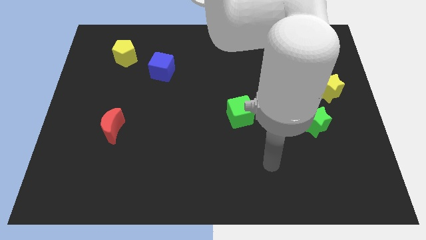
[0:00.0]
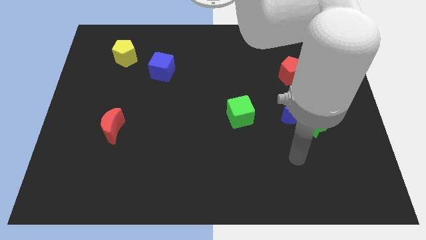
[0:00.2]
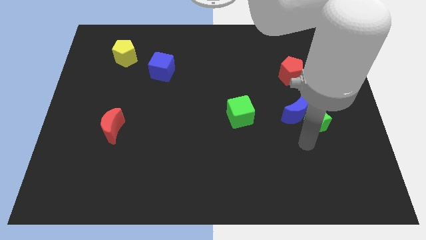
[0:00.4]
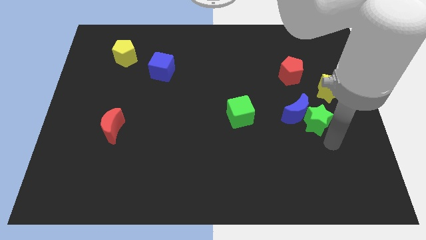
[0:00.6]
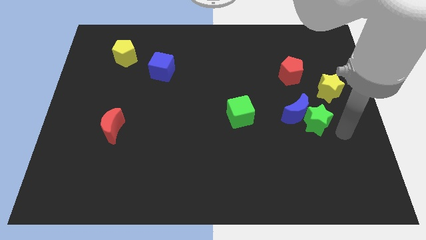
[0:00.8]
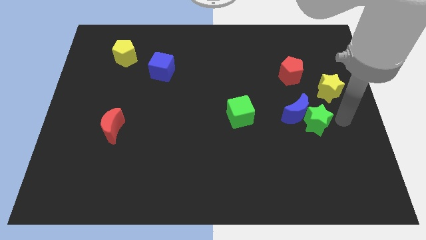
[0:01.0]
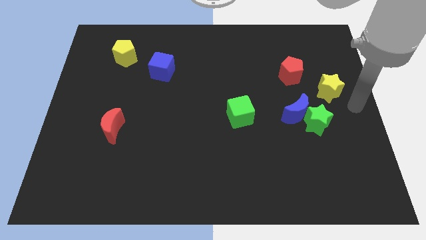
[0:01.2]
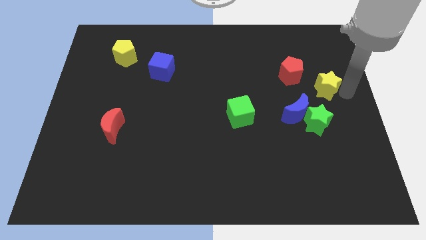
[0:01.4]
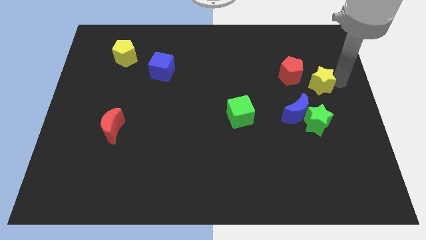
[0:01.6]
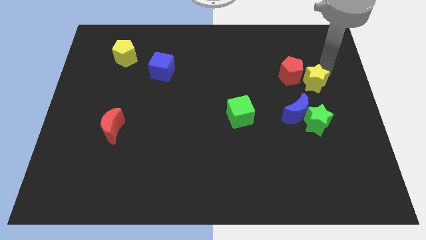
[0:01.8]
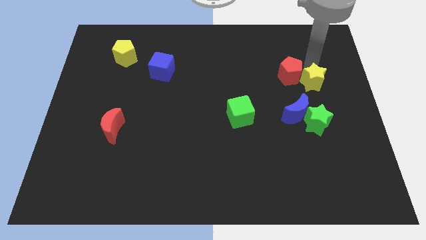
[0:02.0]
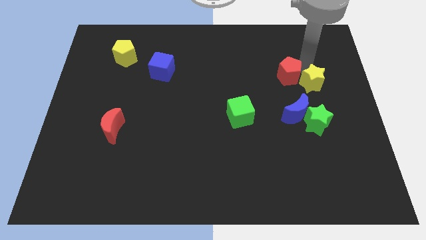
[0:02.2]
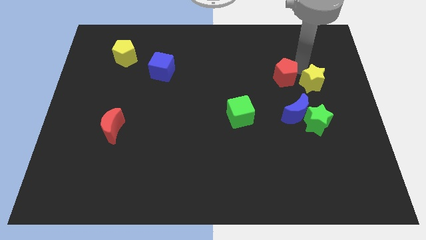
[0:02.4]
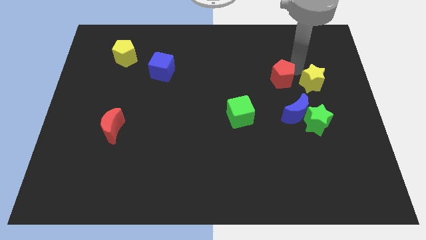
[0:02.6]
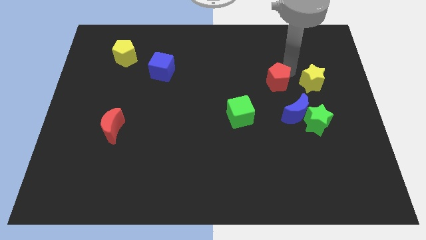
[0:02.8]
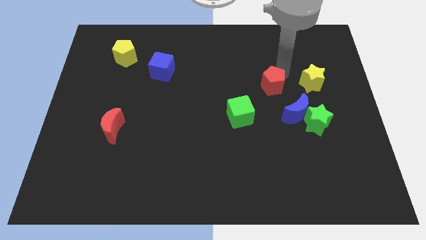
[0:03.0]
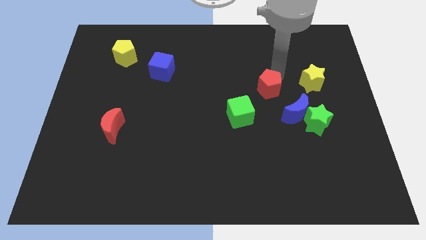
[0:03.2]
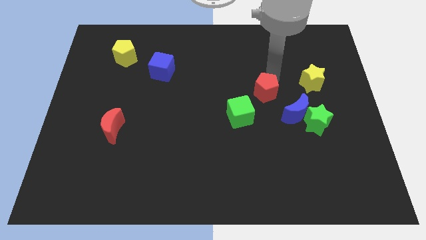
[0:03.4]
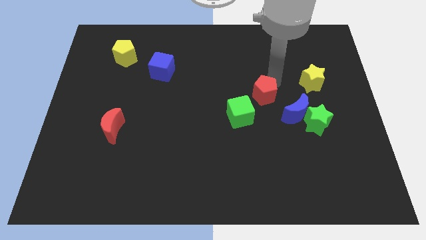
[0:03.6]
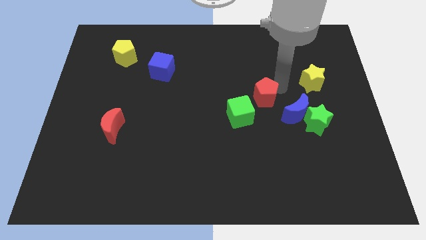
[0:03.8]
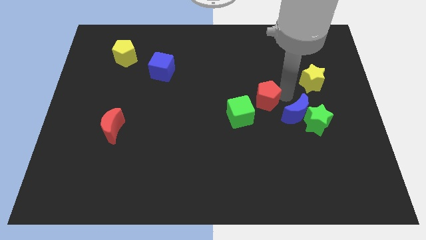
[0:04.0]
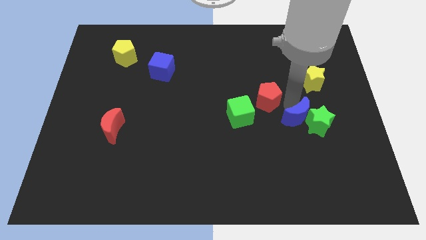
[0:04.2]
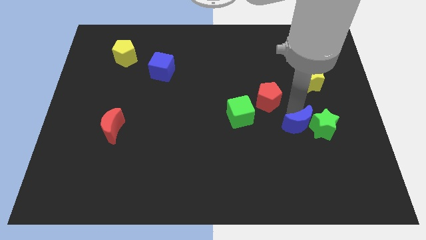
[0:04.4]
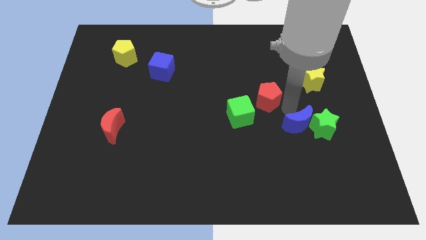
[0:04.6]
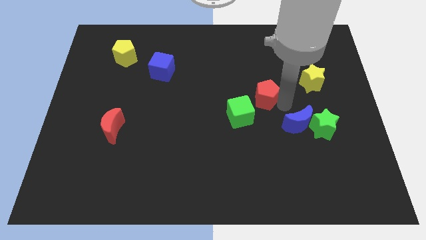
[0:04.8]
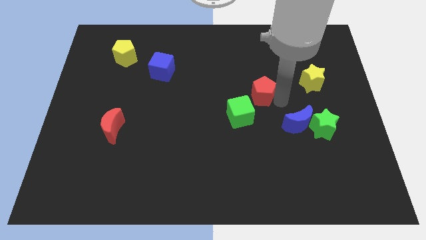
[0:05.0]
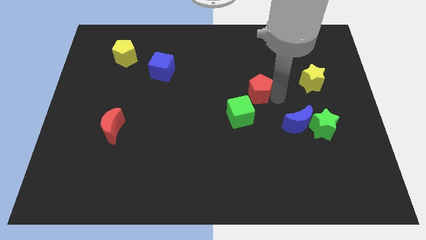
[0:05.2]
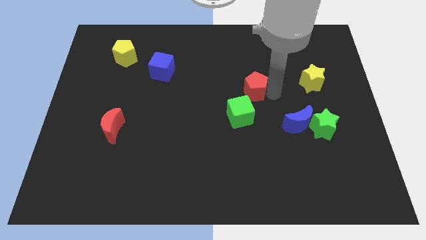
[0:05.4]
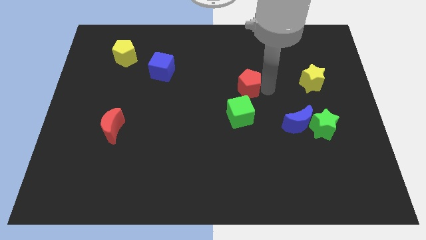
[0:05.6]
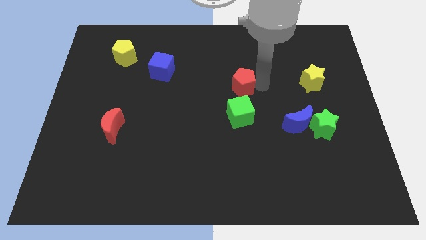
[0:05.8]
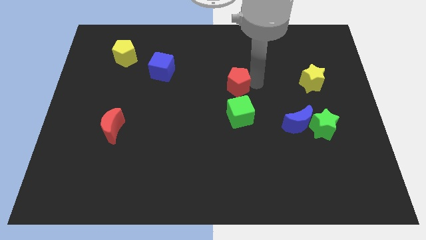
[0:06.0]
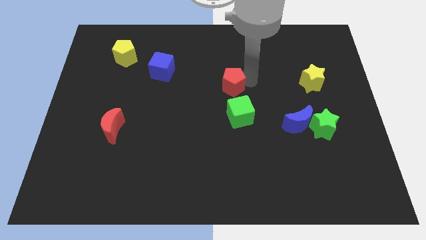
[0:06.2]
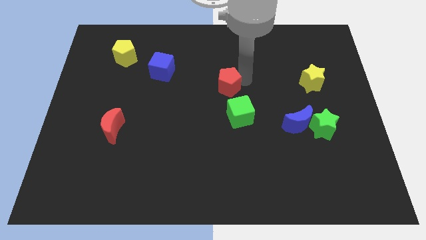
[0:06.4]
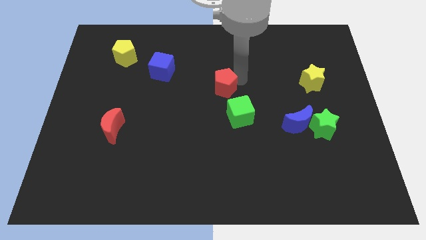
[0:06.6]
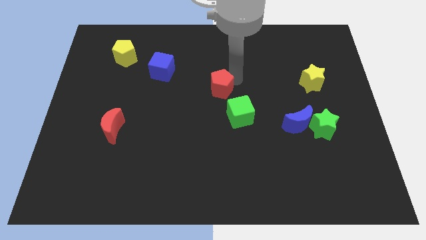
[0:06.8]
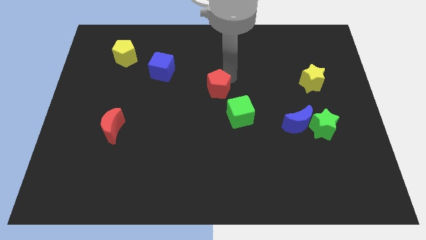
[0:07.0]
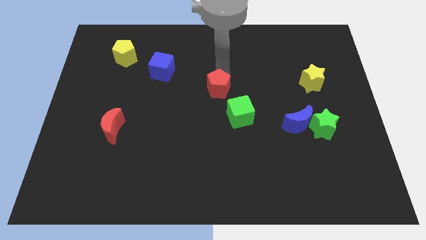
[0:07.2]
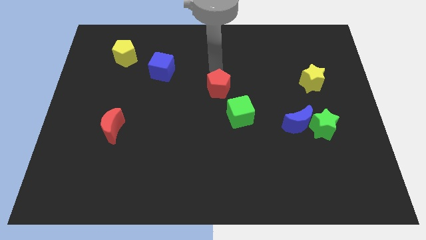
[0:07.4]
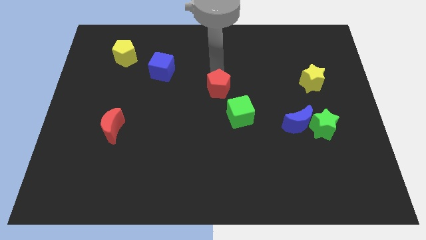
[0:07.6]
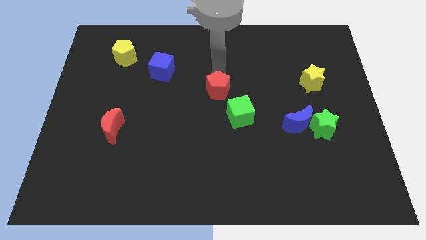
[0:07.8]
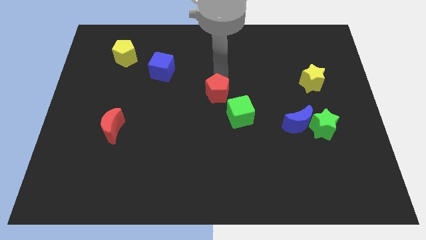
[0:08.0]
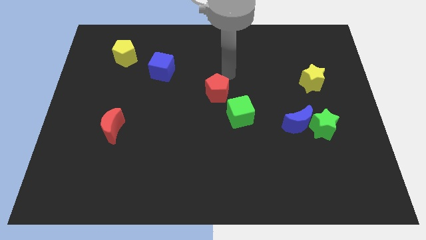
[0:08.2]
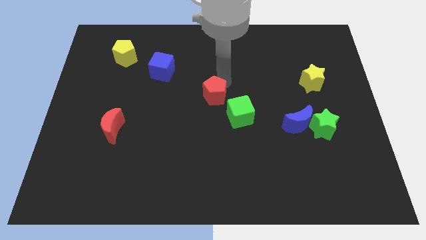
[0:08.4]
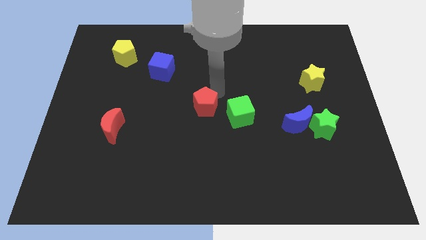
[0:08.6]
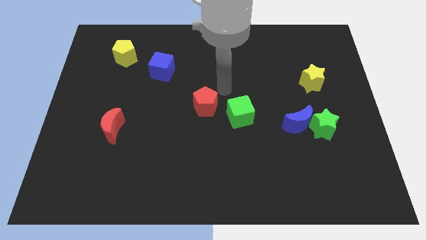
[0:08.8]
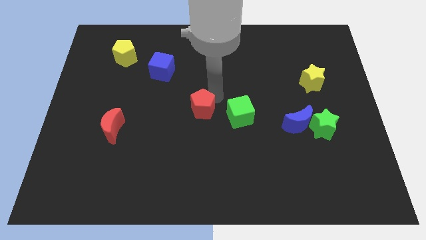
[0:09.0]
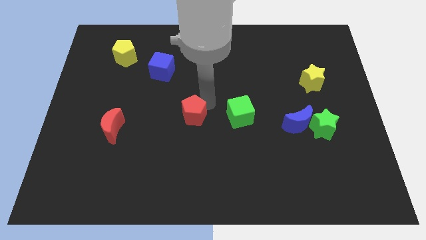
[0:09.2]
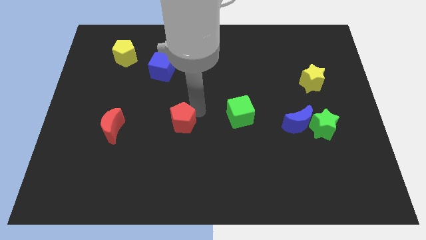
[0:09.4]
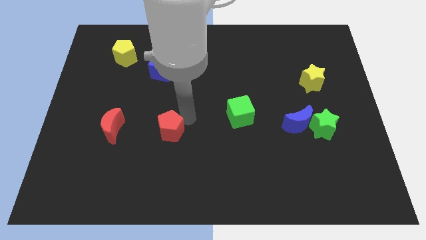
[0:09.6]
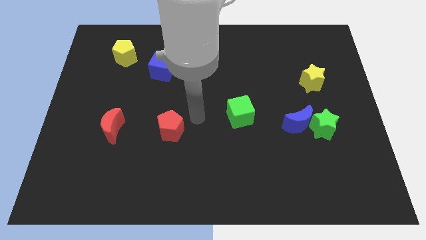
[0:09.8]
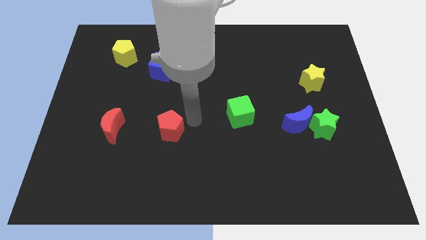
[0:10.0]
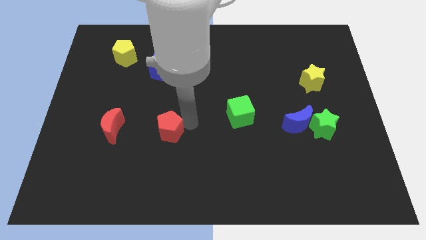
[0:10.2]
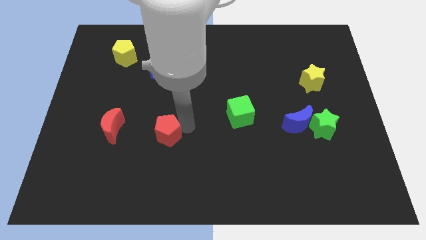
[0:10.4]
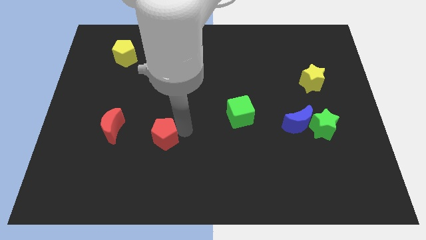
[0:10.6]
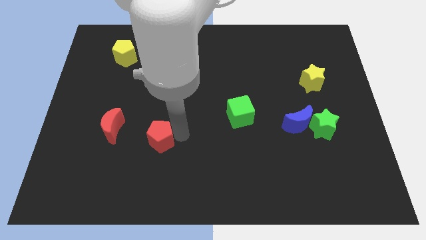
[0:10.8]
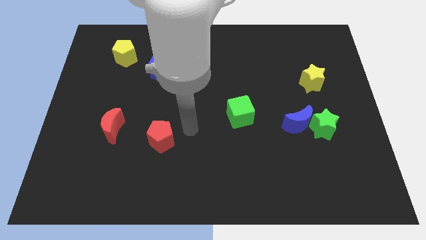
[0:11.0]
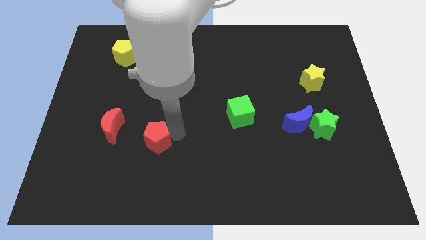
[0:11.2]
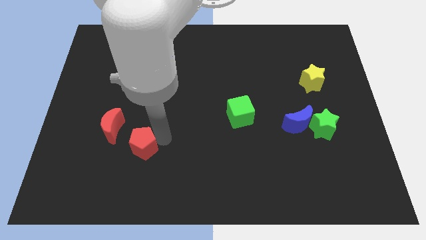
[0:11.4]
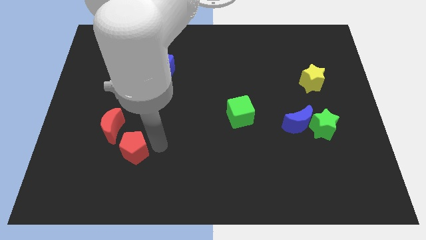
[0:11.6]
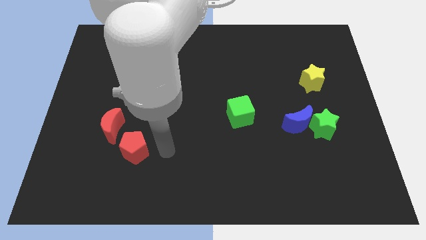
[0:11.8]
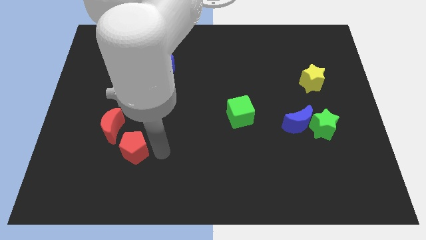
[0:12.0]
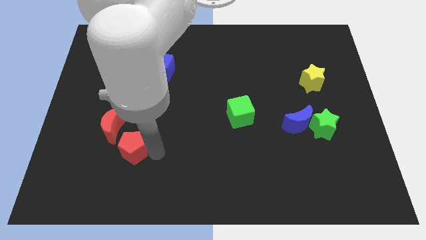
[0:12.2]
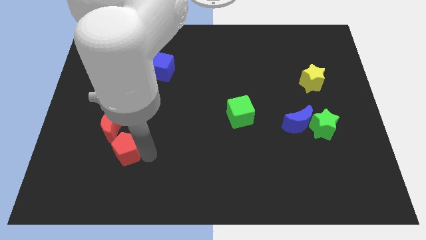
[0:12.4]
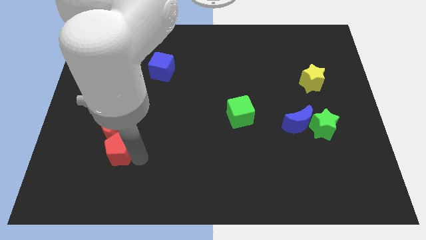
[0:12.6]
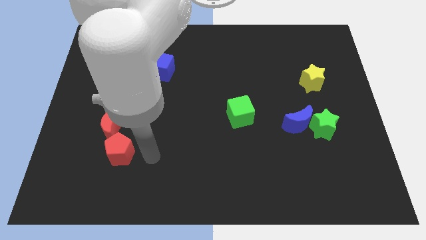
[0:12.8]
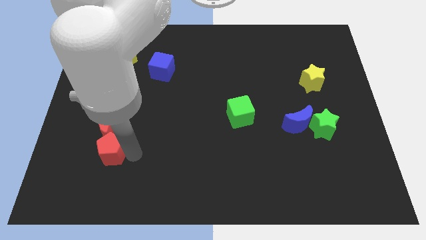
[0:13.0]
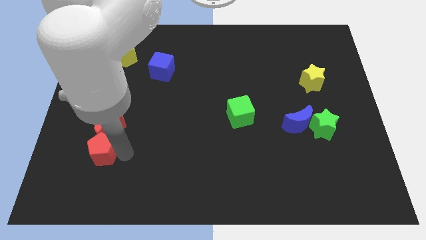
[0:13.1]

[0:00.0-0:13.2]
move the red pentagon to the bottom left of the red moon
